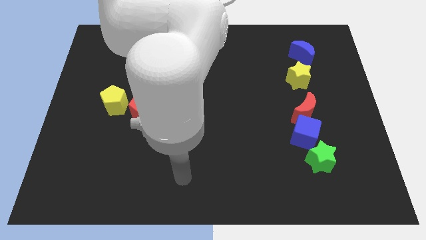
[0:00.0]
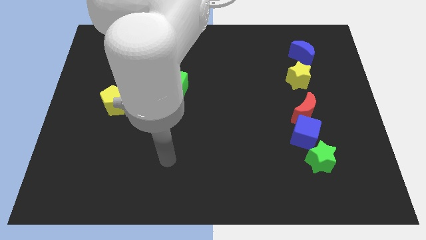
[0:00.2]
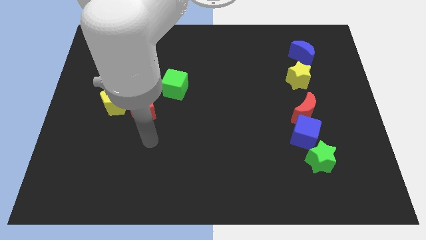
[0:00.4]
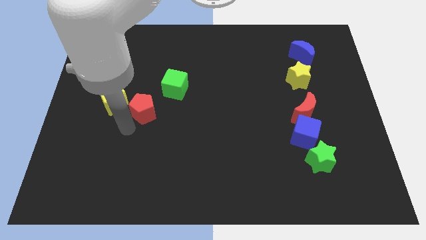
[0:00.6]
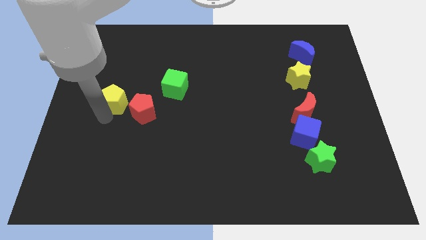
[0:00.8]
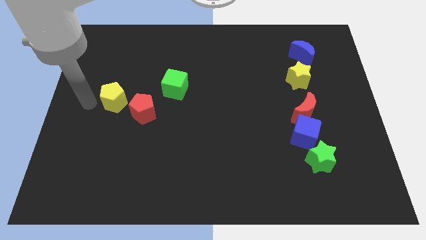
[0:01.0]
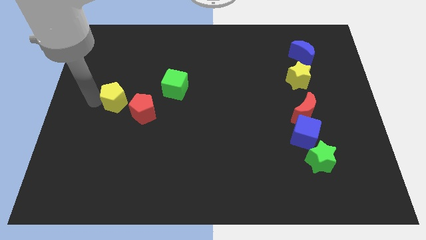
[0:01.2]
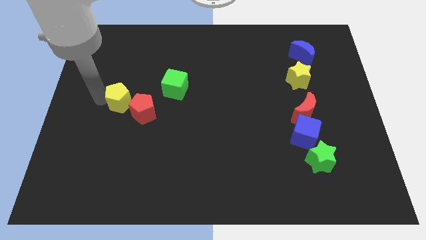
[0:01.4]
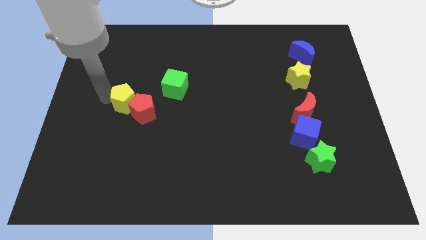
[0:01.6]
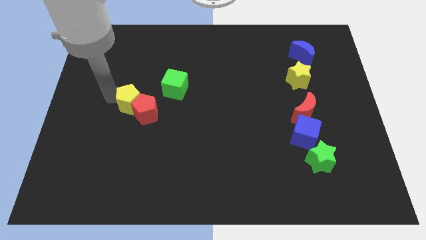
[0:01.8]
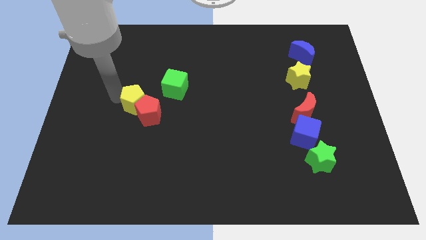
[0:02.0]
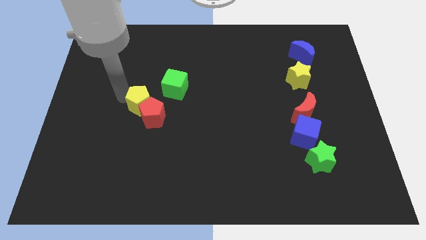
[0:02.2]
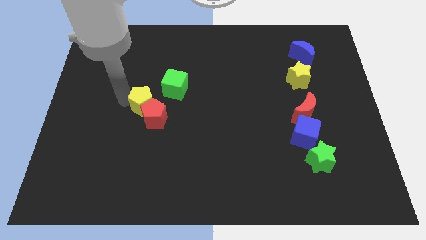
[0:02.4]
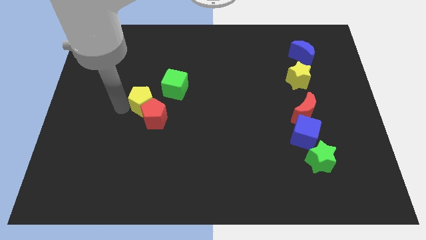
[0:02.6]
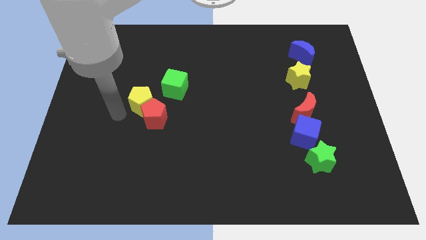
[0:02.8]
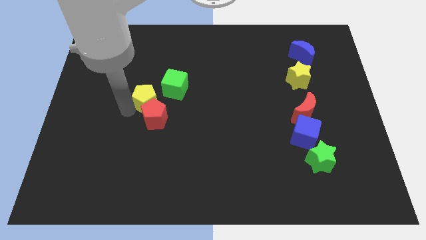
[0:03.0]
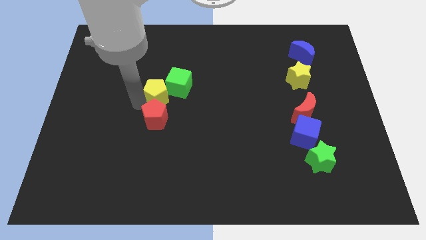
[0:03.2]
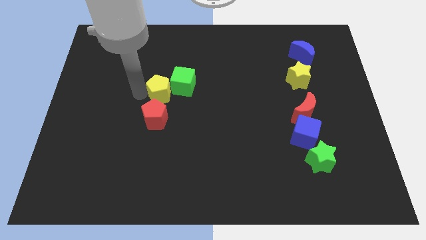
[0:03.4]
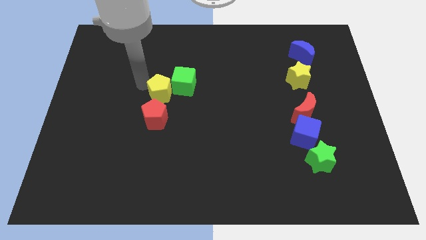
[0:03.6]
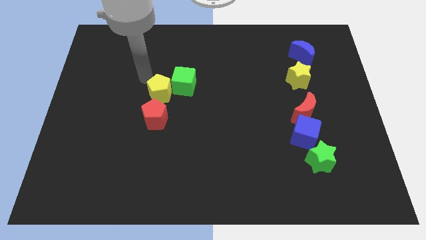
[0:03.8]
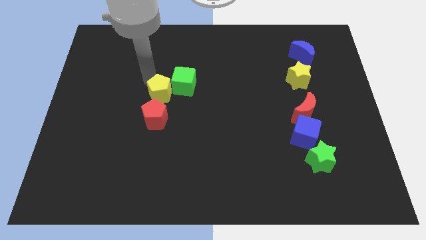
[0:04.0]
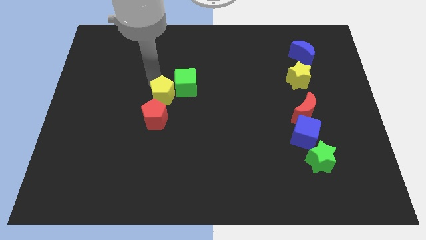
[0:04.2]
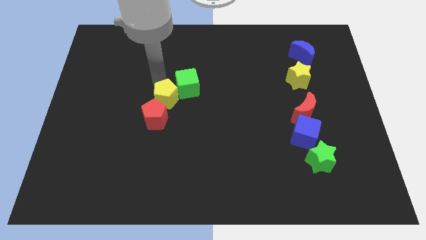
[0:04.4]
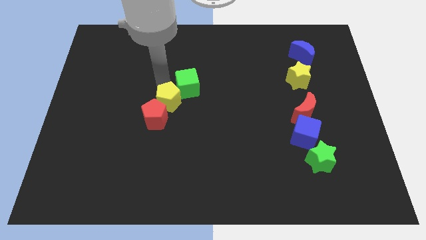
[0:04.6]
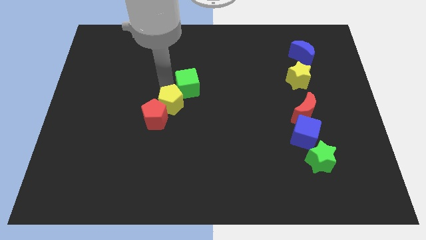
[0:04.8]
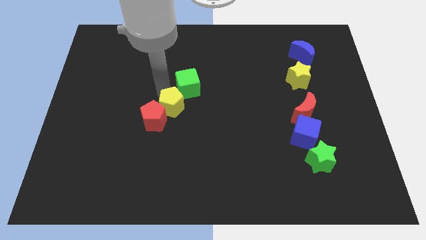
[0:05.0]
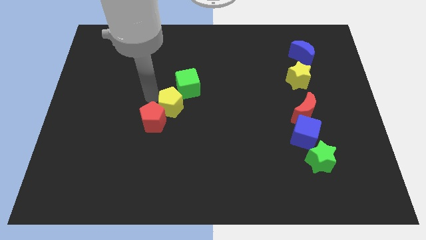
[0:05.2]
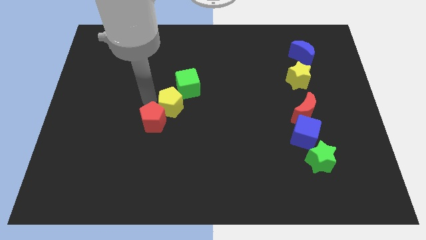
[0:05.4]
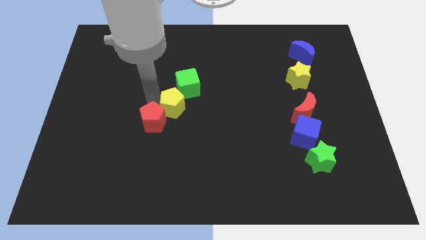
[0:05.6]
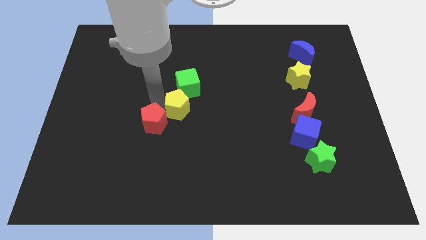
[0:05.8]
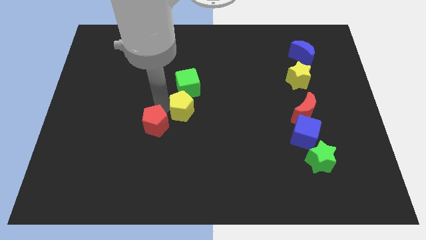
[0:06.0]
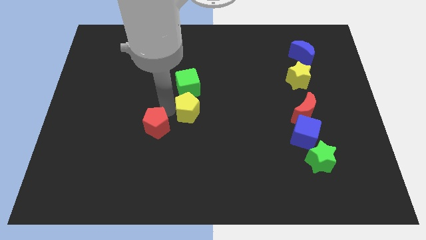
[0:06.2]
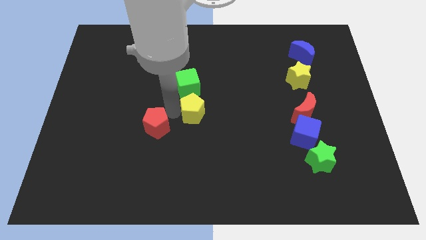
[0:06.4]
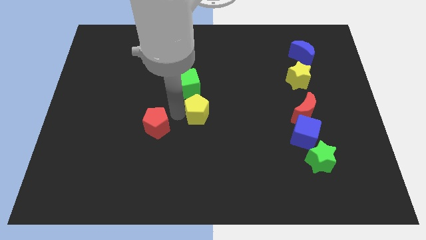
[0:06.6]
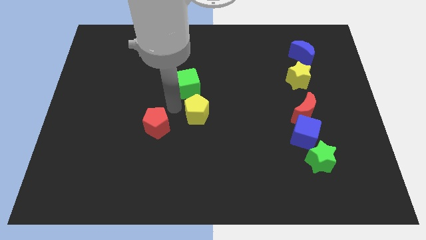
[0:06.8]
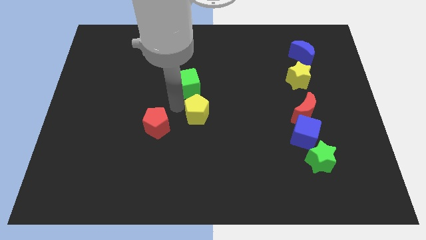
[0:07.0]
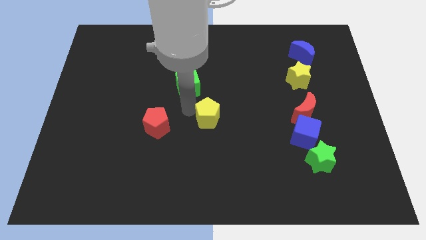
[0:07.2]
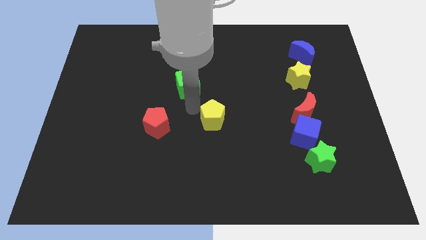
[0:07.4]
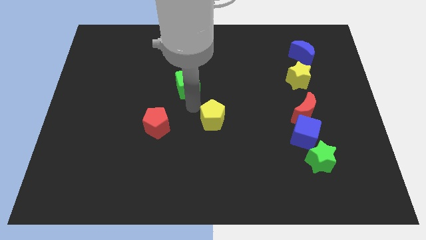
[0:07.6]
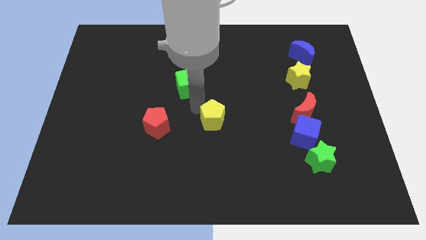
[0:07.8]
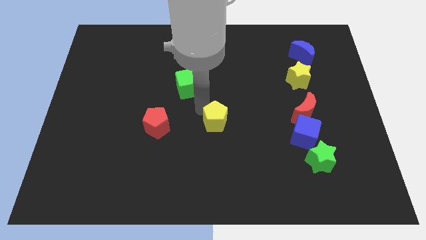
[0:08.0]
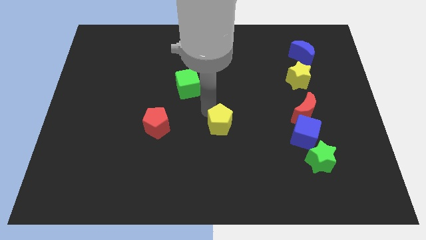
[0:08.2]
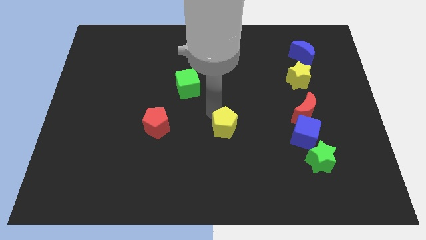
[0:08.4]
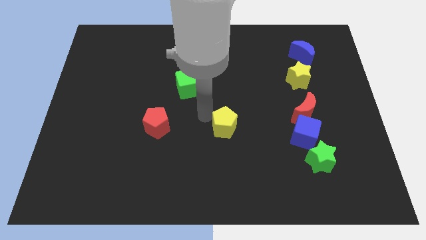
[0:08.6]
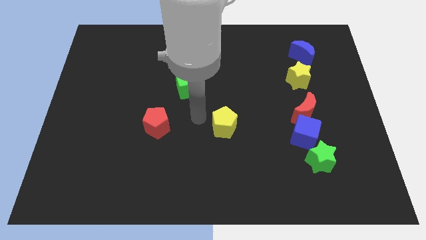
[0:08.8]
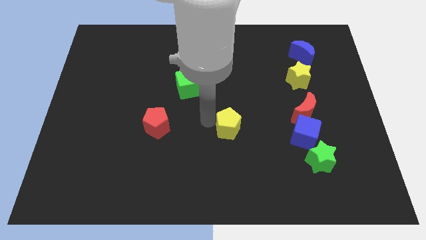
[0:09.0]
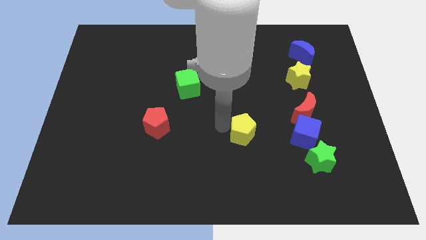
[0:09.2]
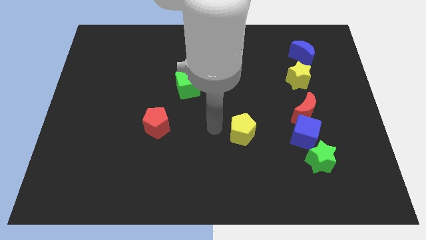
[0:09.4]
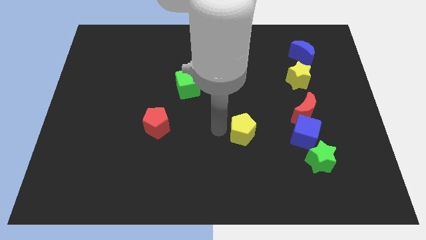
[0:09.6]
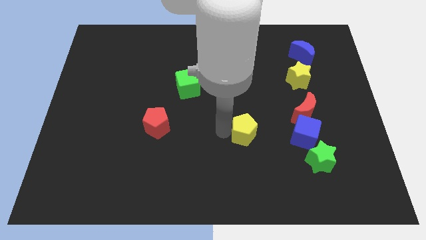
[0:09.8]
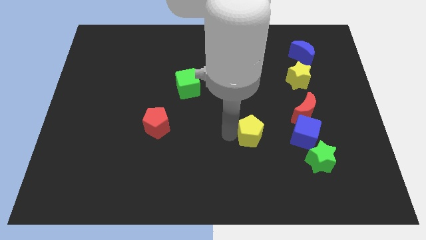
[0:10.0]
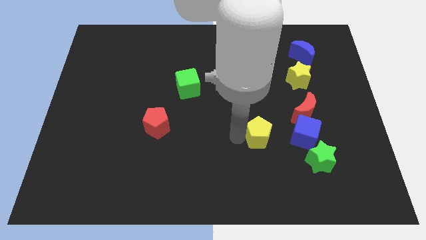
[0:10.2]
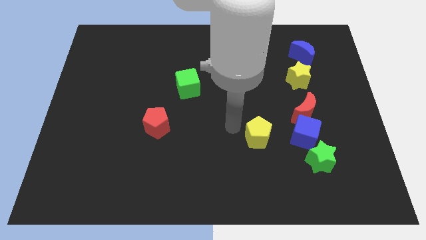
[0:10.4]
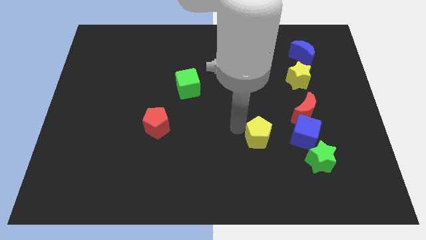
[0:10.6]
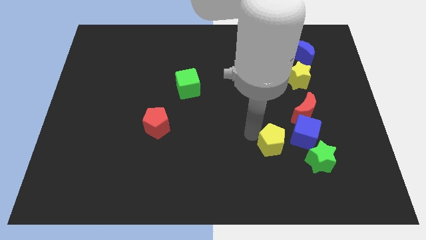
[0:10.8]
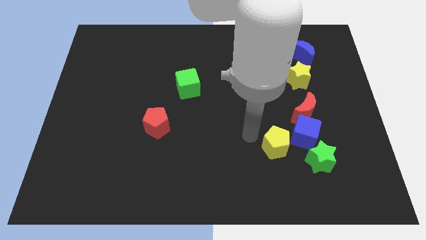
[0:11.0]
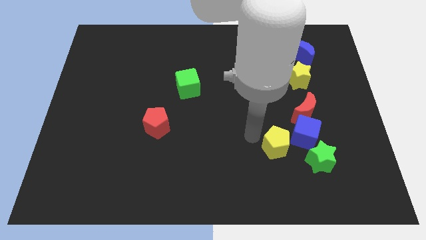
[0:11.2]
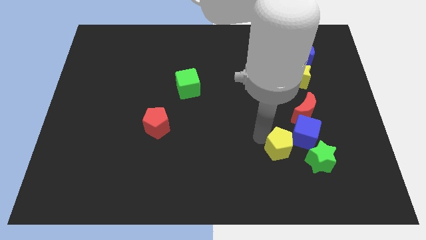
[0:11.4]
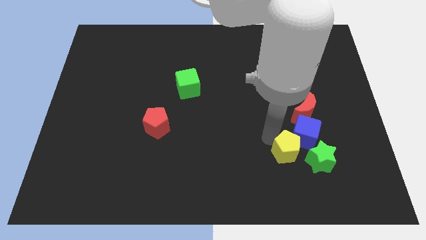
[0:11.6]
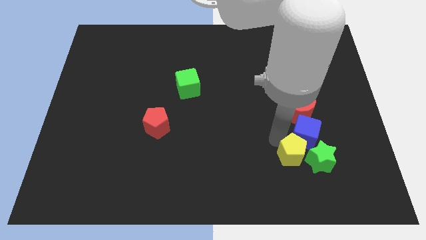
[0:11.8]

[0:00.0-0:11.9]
push the yellow pentagon to the green star

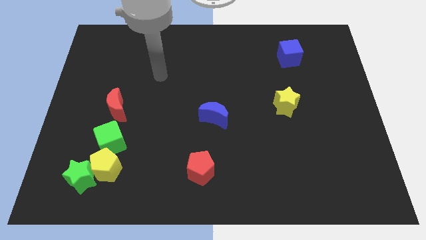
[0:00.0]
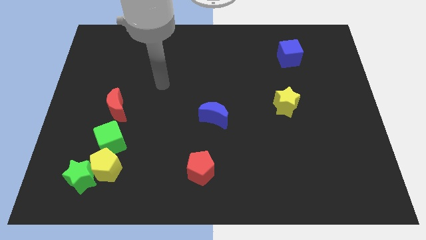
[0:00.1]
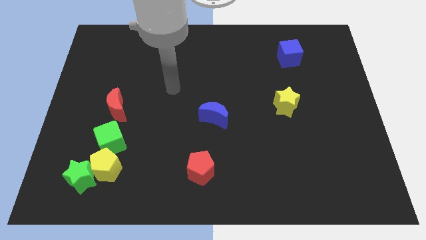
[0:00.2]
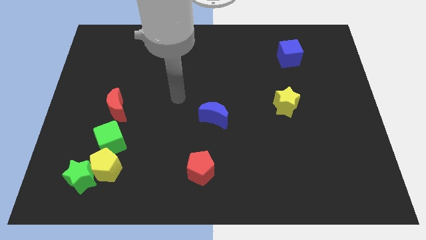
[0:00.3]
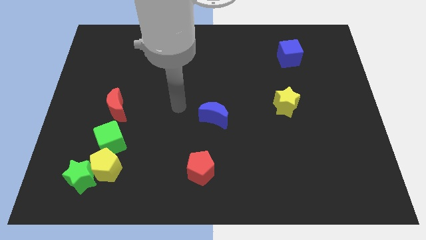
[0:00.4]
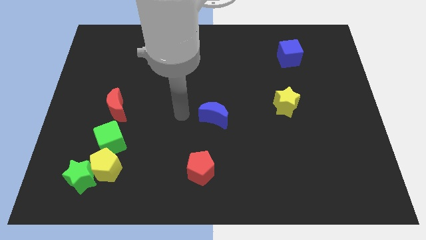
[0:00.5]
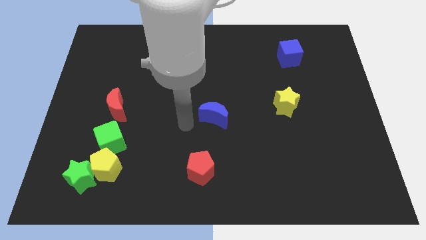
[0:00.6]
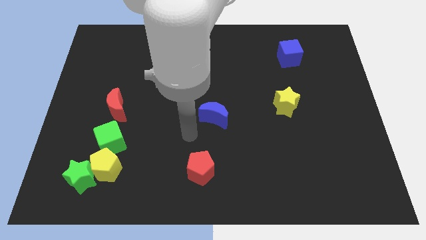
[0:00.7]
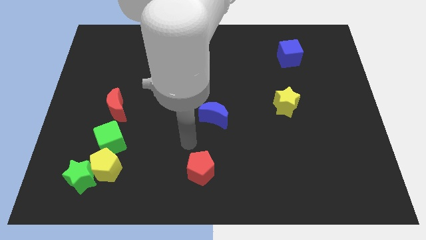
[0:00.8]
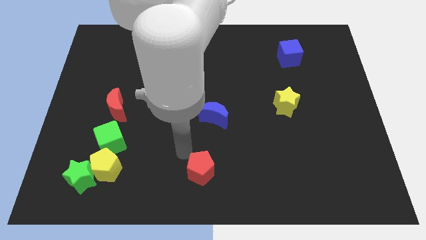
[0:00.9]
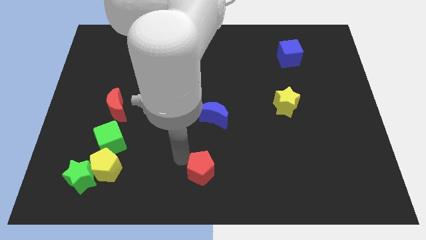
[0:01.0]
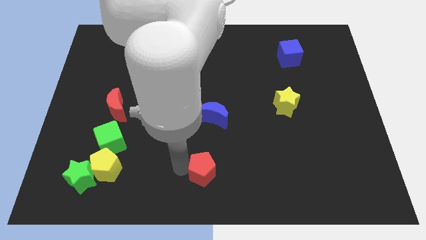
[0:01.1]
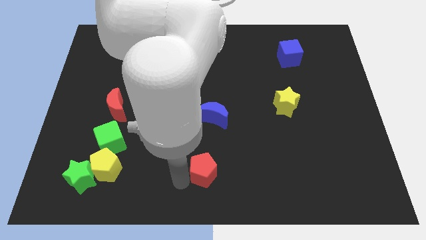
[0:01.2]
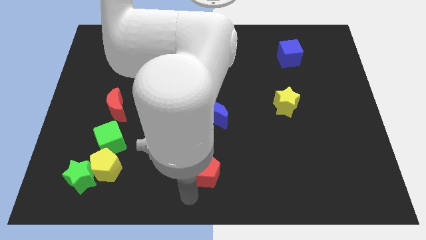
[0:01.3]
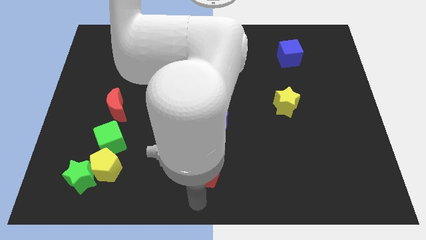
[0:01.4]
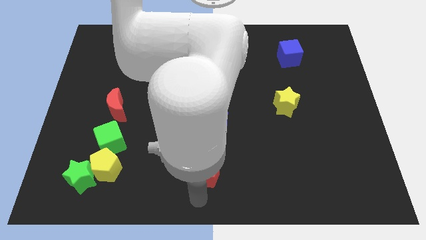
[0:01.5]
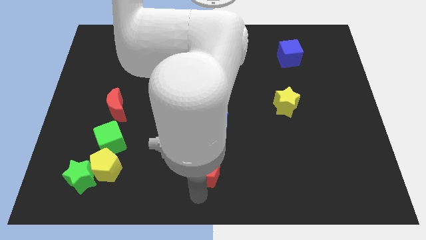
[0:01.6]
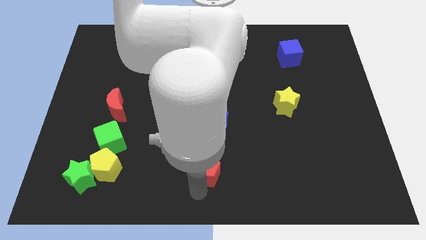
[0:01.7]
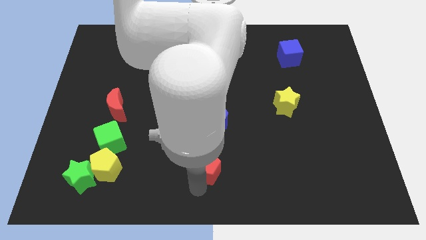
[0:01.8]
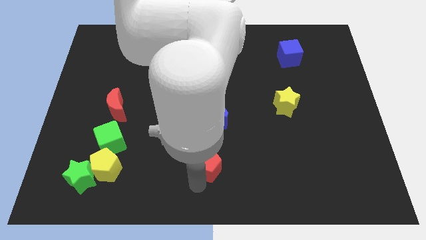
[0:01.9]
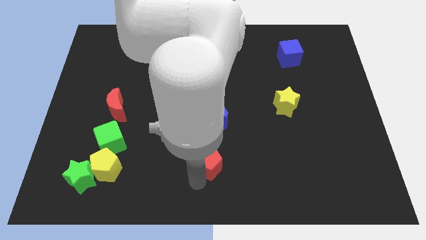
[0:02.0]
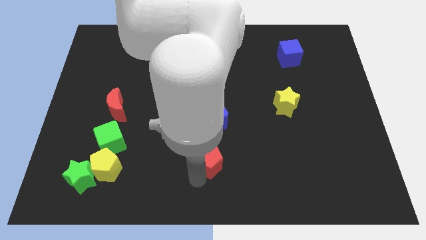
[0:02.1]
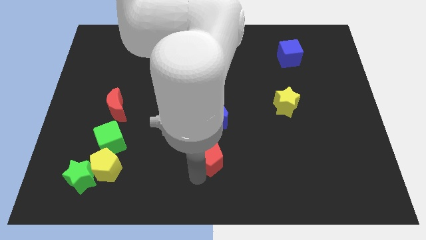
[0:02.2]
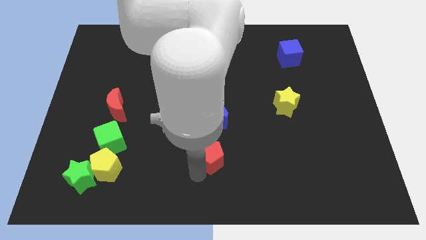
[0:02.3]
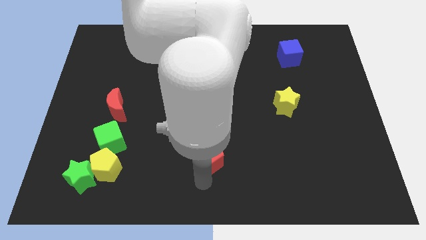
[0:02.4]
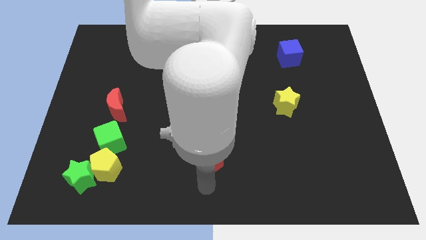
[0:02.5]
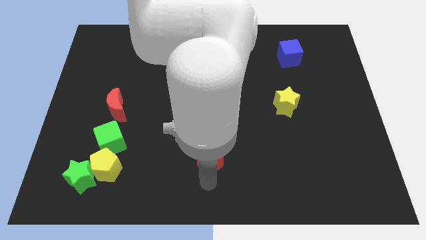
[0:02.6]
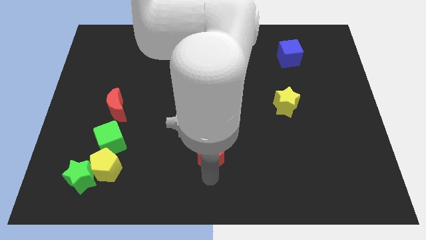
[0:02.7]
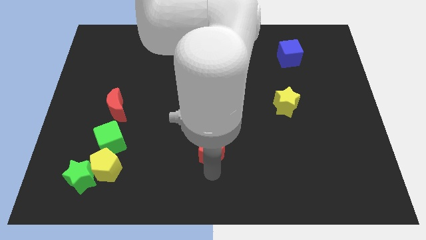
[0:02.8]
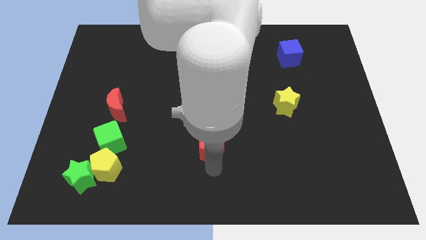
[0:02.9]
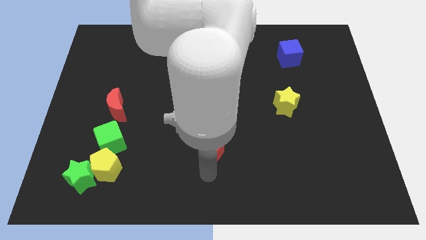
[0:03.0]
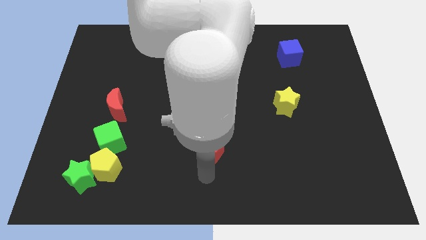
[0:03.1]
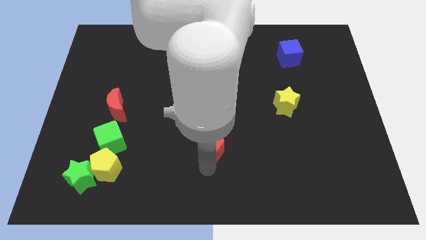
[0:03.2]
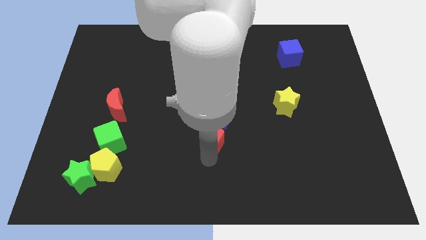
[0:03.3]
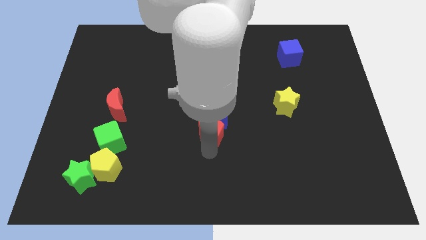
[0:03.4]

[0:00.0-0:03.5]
move the red pentagon next to the blue moon
